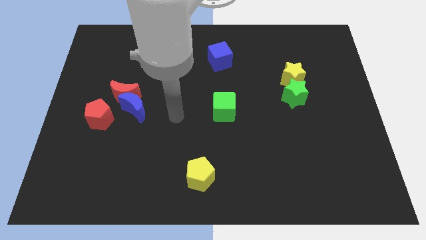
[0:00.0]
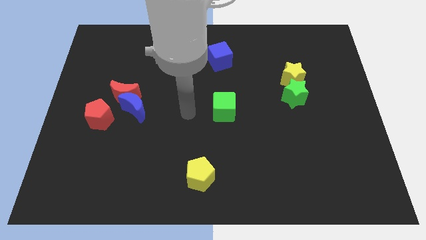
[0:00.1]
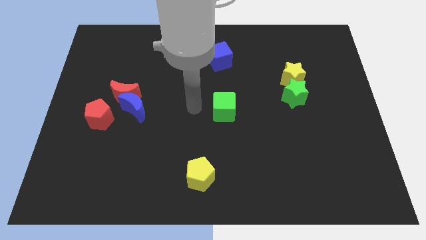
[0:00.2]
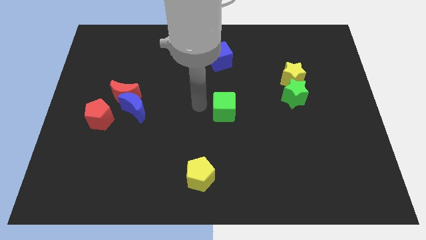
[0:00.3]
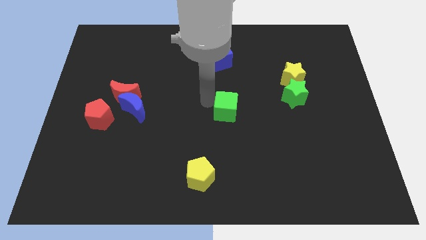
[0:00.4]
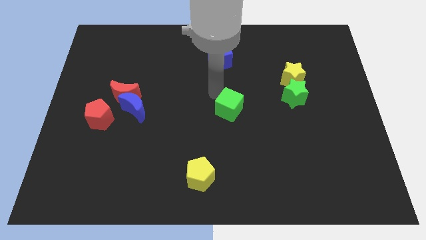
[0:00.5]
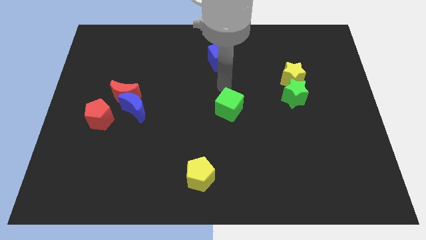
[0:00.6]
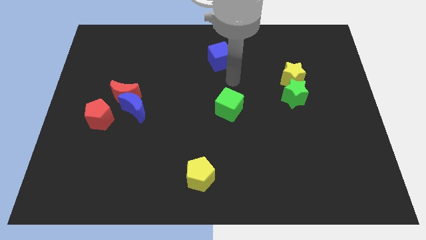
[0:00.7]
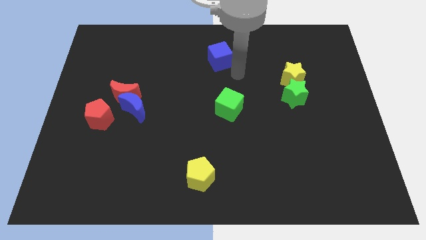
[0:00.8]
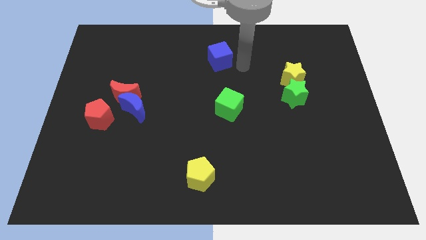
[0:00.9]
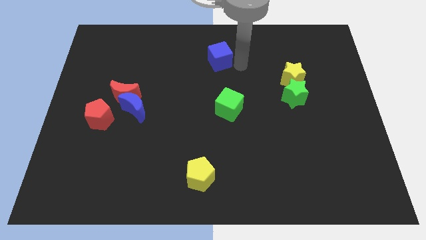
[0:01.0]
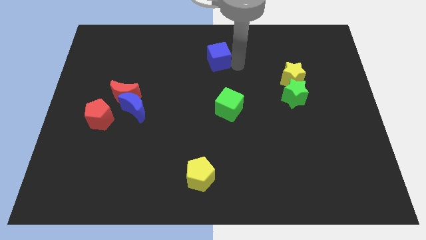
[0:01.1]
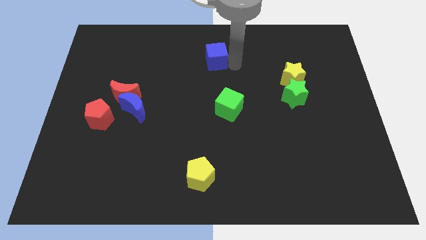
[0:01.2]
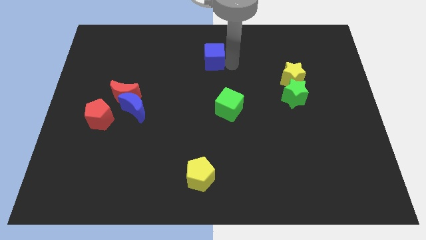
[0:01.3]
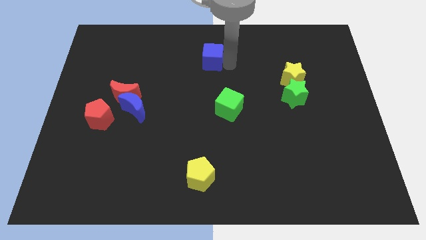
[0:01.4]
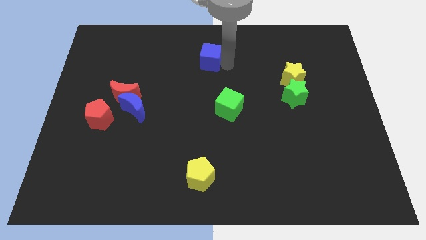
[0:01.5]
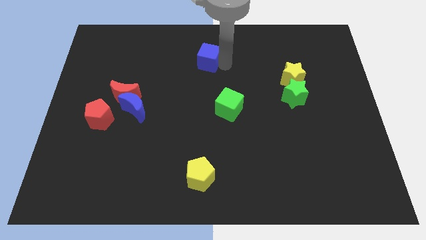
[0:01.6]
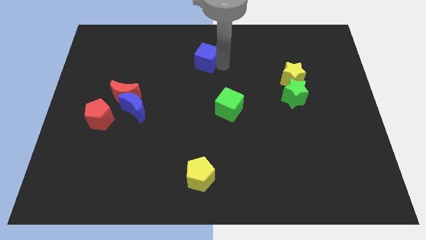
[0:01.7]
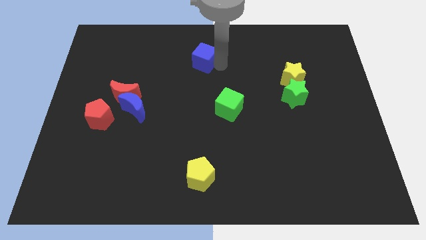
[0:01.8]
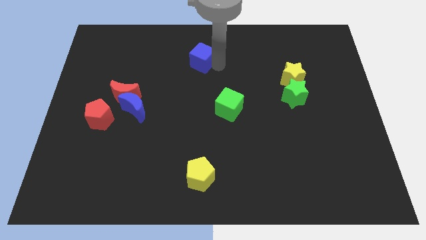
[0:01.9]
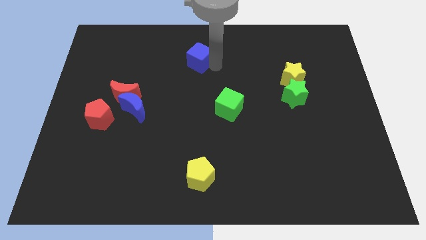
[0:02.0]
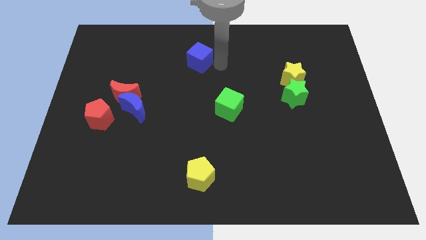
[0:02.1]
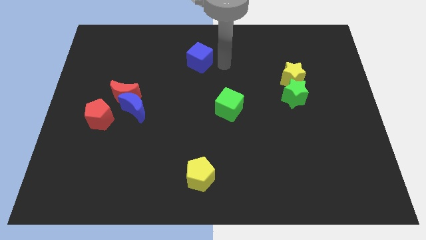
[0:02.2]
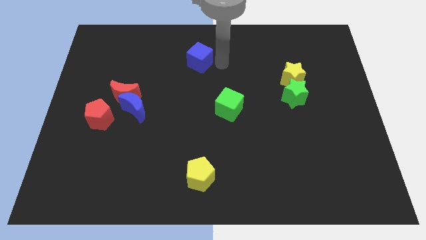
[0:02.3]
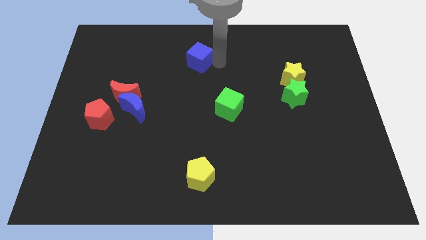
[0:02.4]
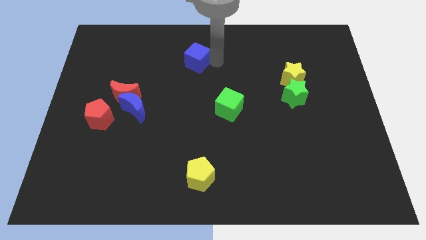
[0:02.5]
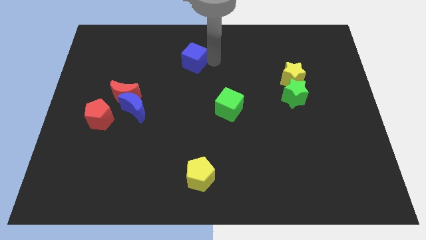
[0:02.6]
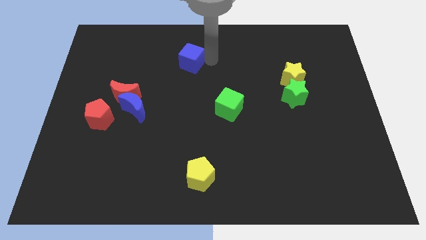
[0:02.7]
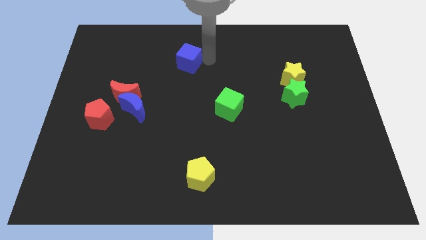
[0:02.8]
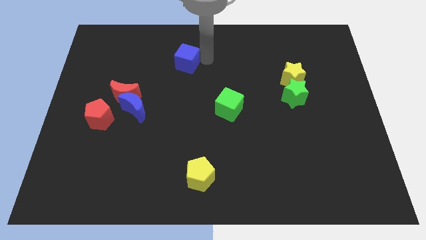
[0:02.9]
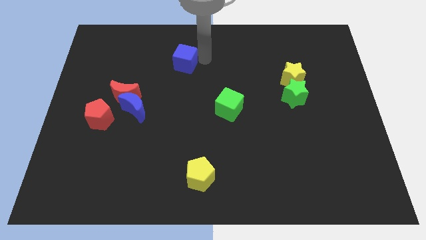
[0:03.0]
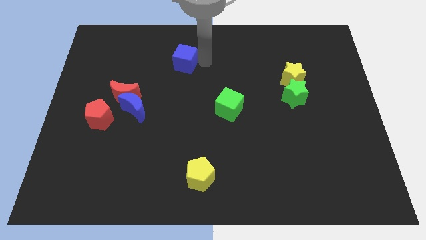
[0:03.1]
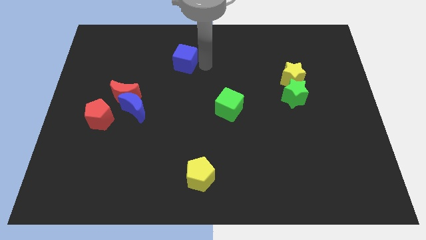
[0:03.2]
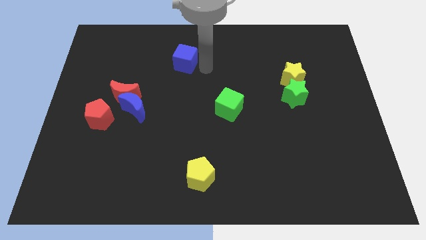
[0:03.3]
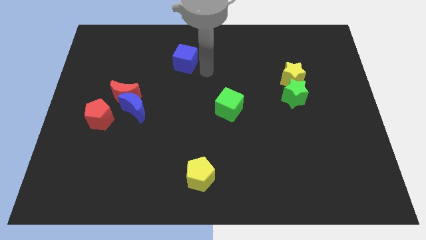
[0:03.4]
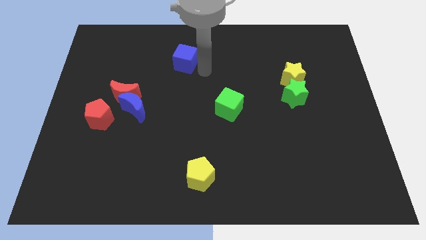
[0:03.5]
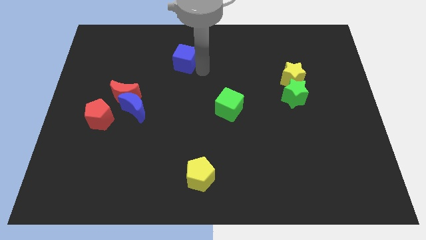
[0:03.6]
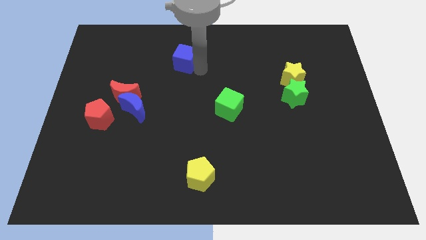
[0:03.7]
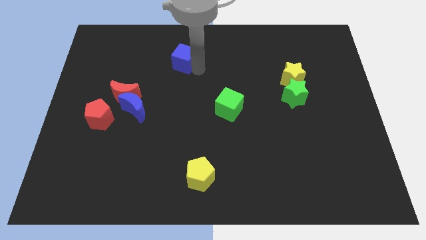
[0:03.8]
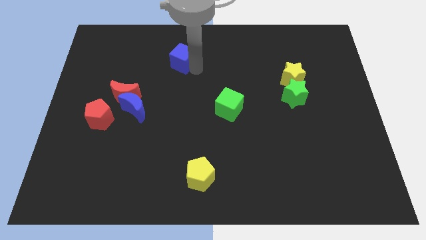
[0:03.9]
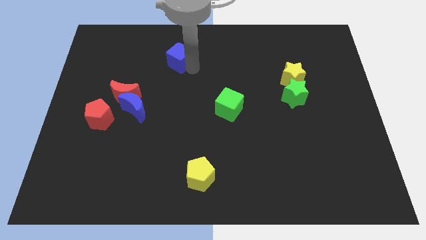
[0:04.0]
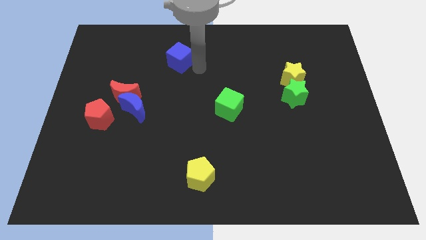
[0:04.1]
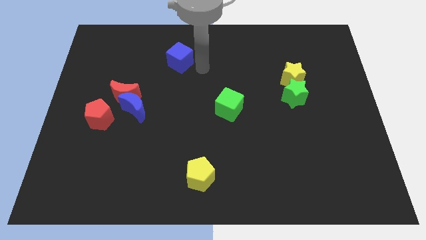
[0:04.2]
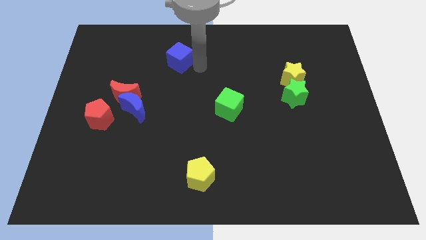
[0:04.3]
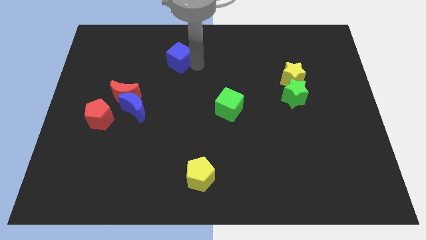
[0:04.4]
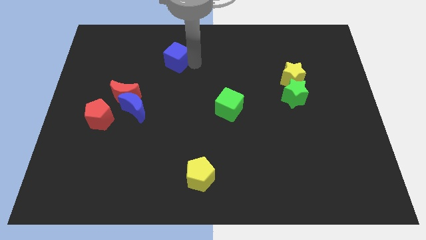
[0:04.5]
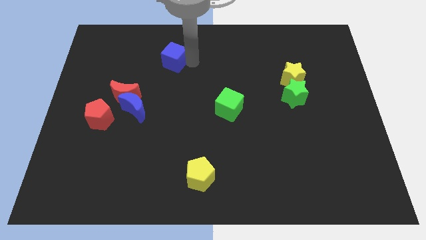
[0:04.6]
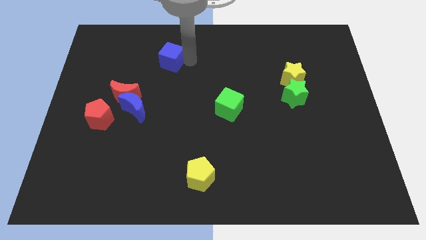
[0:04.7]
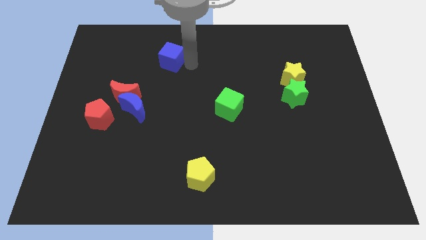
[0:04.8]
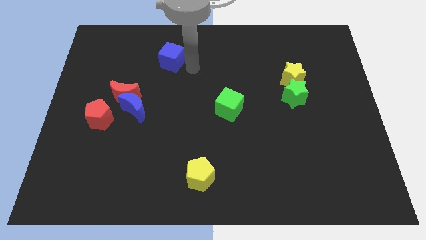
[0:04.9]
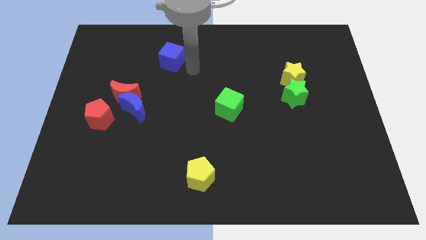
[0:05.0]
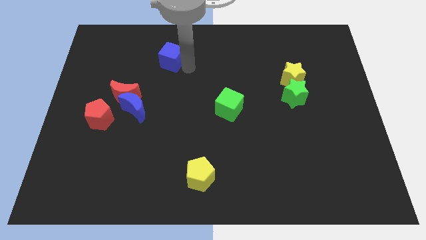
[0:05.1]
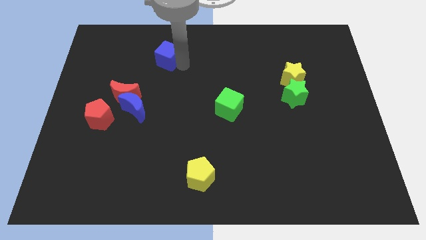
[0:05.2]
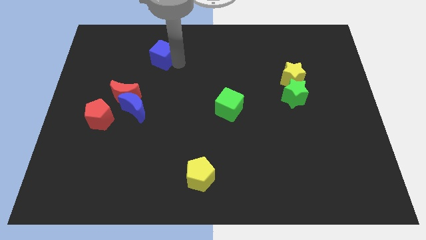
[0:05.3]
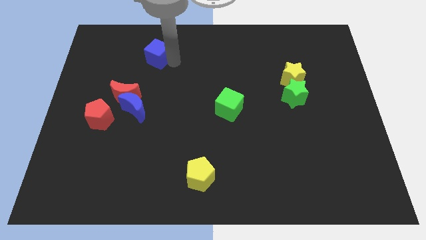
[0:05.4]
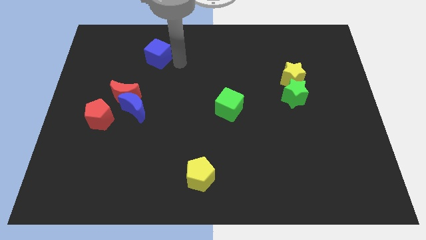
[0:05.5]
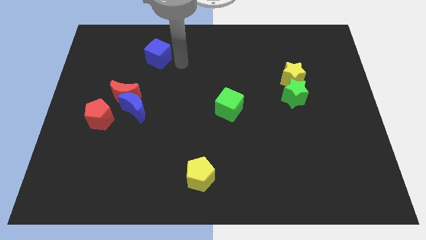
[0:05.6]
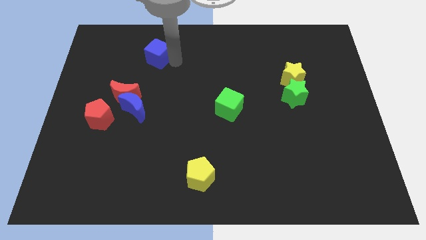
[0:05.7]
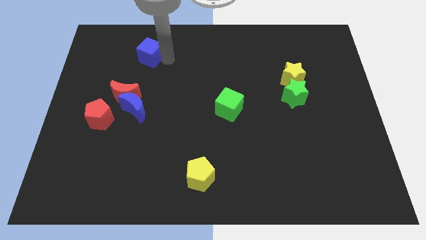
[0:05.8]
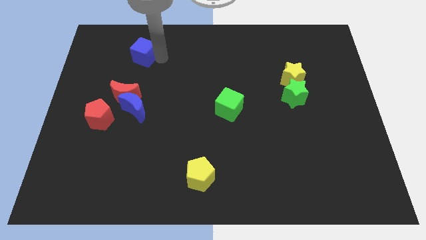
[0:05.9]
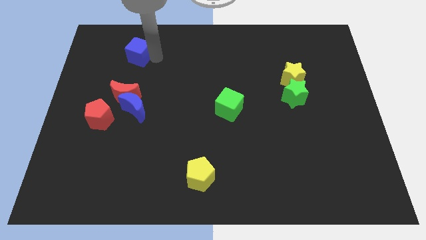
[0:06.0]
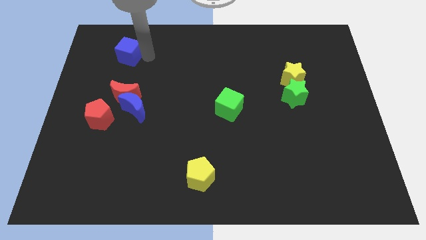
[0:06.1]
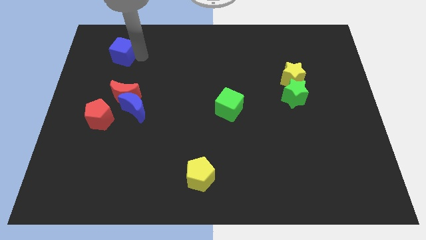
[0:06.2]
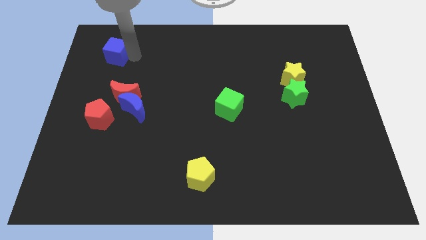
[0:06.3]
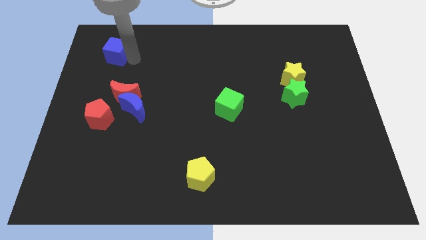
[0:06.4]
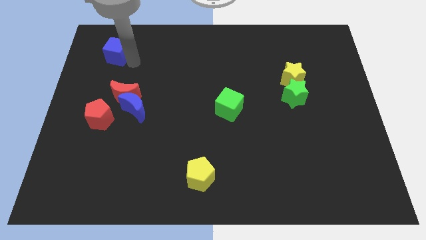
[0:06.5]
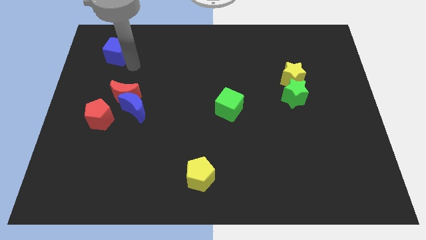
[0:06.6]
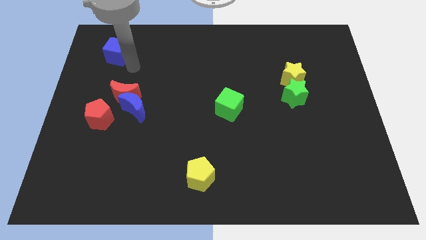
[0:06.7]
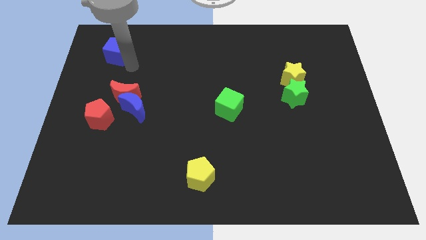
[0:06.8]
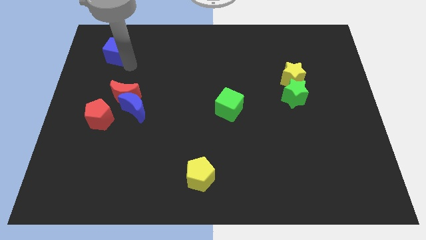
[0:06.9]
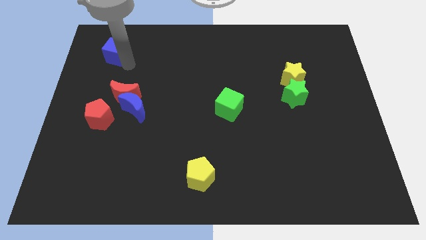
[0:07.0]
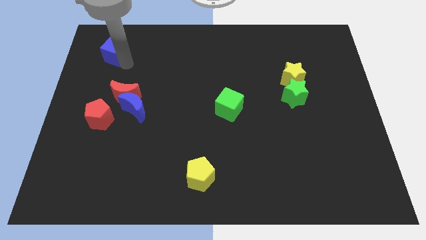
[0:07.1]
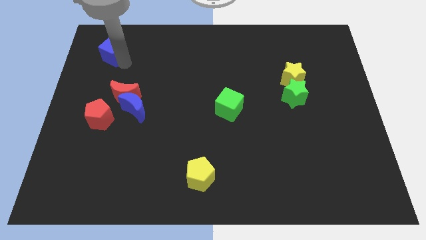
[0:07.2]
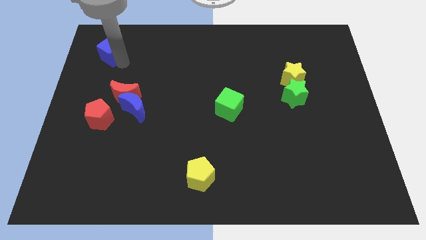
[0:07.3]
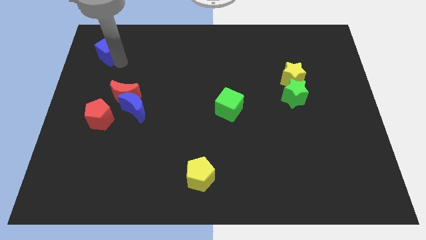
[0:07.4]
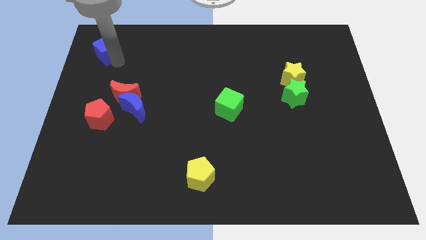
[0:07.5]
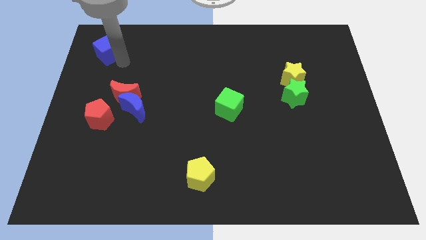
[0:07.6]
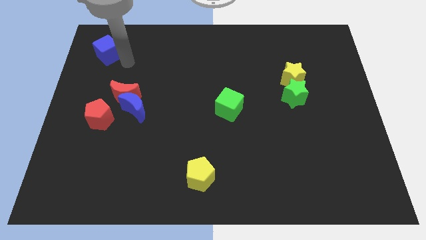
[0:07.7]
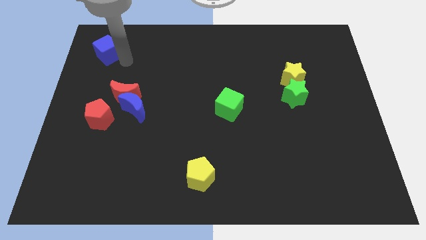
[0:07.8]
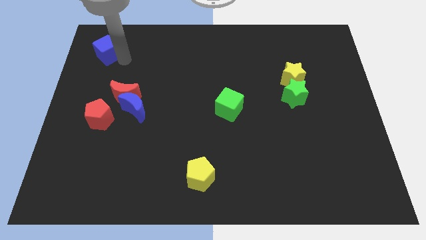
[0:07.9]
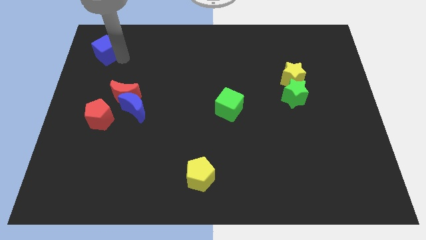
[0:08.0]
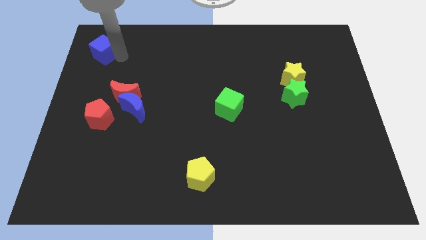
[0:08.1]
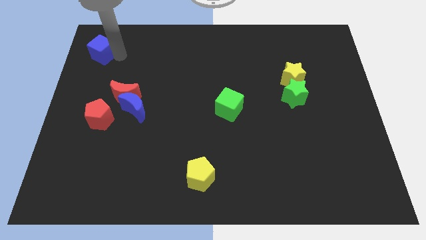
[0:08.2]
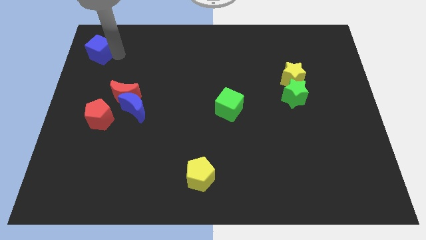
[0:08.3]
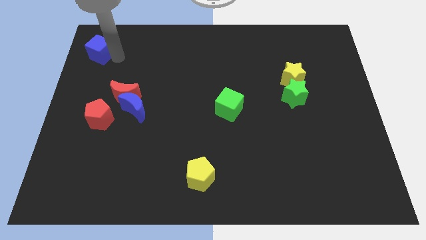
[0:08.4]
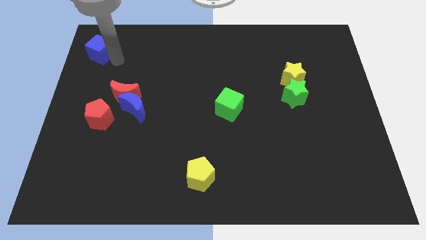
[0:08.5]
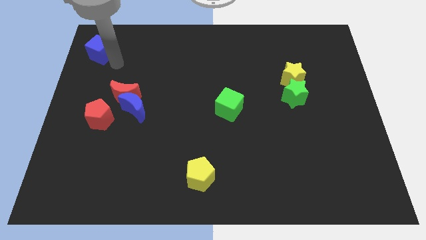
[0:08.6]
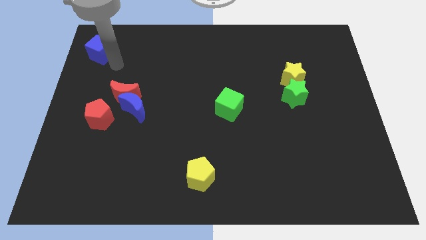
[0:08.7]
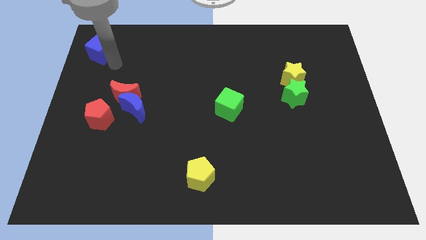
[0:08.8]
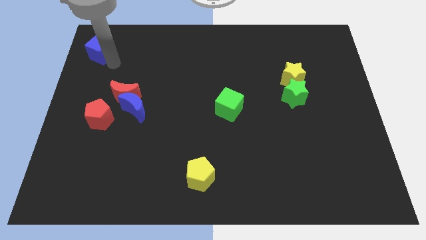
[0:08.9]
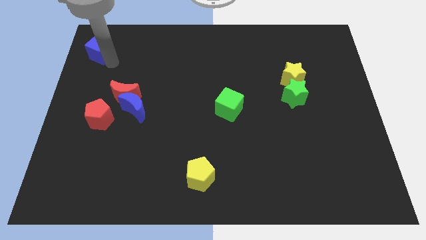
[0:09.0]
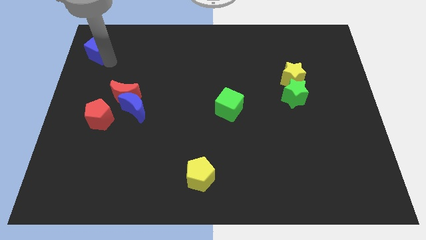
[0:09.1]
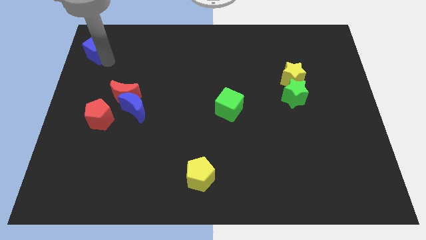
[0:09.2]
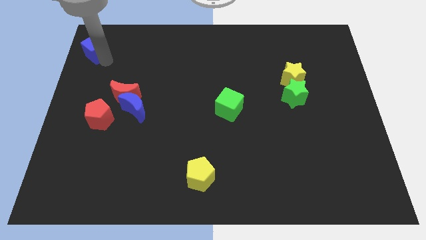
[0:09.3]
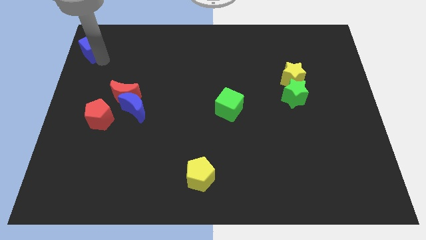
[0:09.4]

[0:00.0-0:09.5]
push the blue cube to the top left corner
